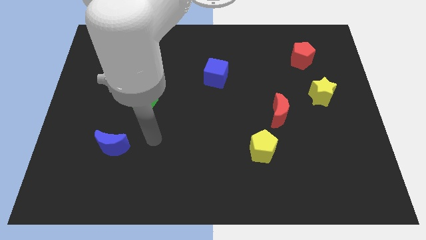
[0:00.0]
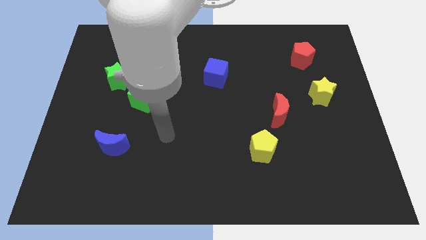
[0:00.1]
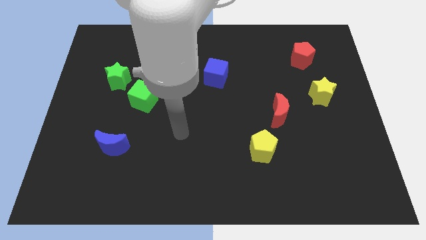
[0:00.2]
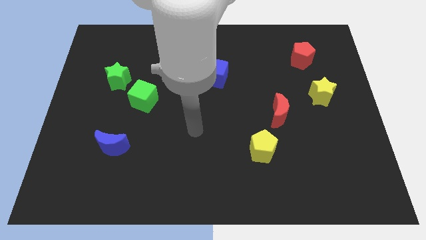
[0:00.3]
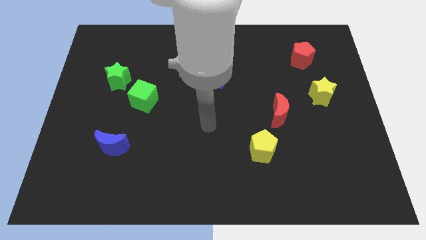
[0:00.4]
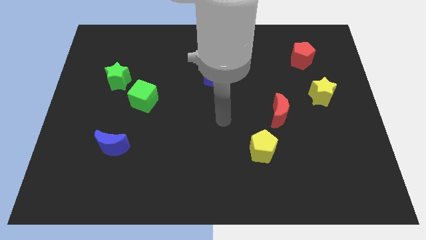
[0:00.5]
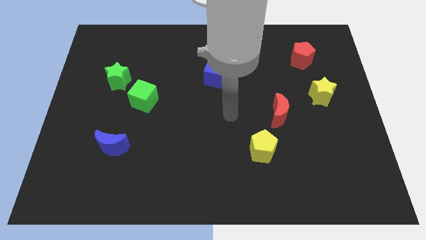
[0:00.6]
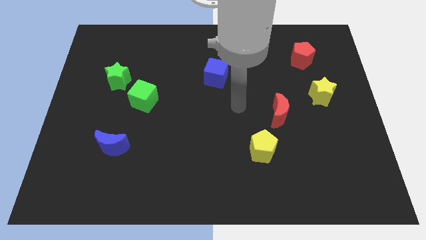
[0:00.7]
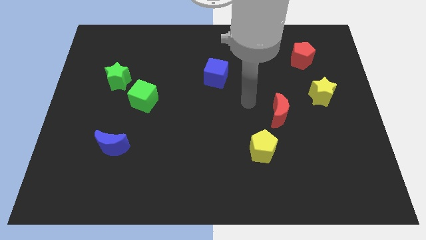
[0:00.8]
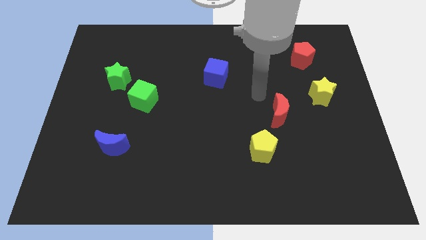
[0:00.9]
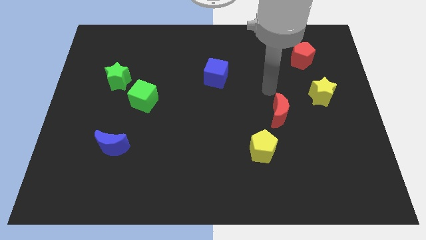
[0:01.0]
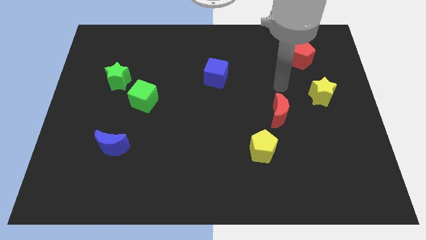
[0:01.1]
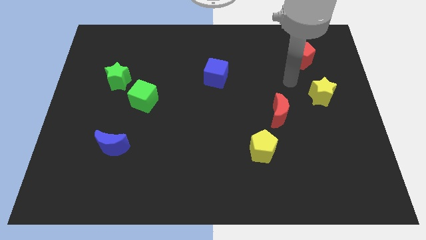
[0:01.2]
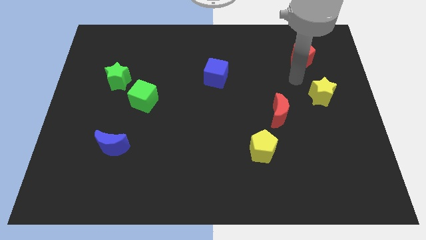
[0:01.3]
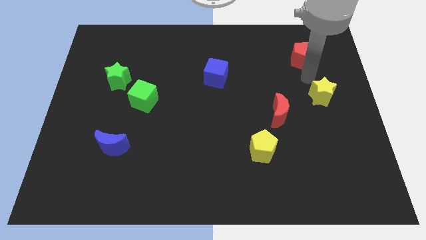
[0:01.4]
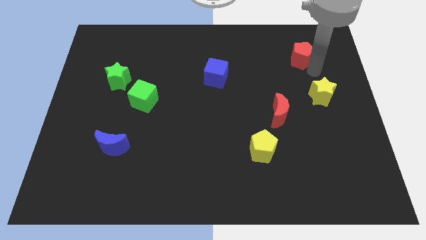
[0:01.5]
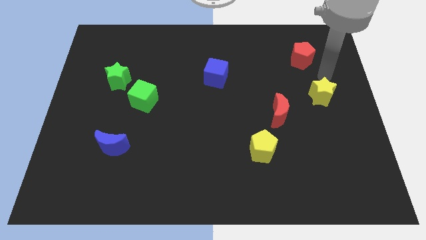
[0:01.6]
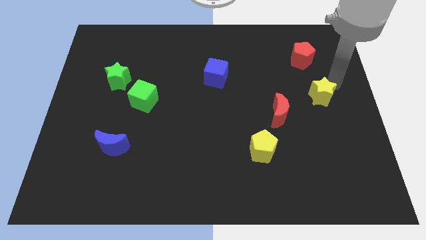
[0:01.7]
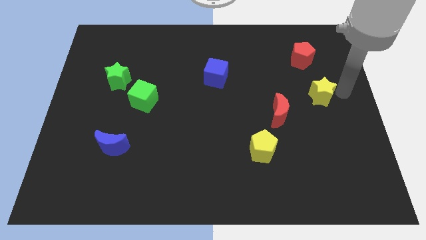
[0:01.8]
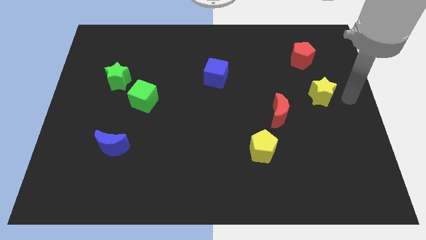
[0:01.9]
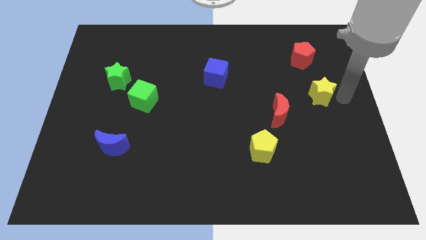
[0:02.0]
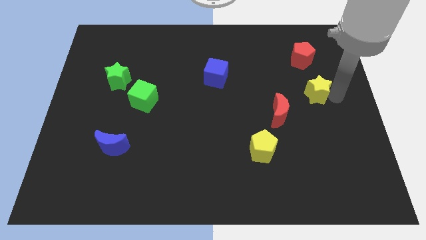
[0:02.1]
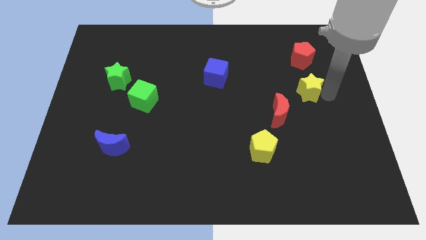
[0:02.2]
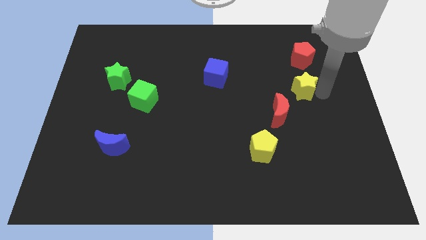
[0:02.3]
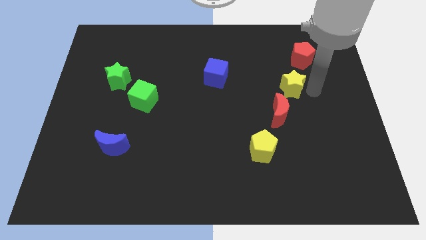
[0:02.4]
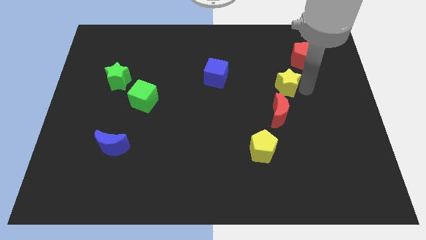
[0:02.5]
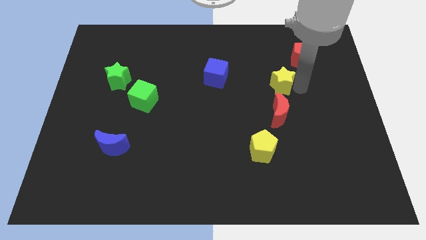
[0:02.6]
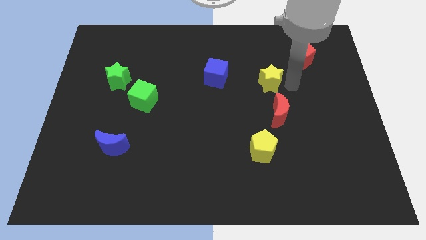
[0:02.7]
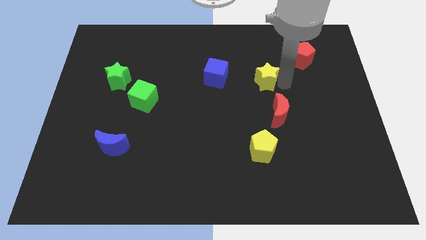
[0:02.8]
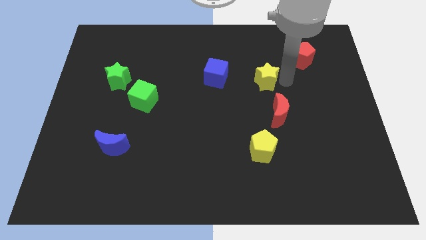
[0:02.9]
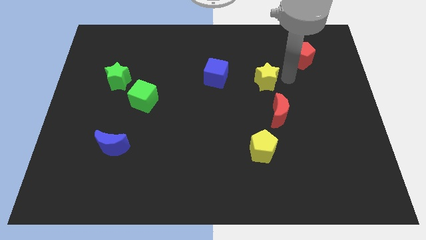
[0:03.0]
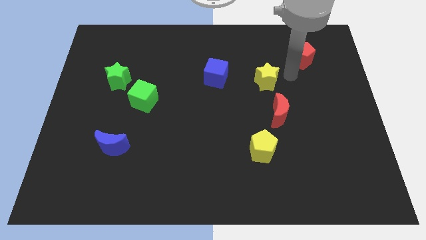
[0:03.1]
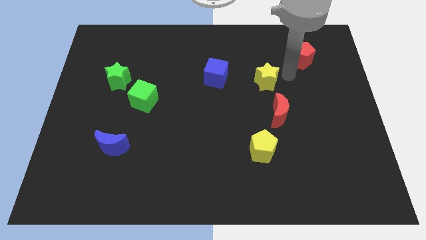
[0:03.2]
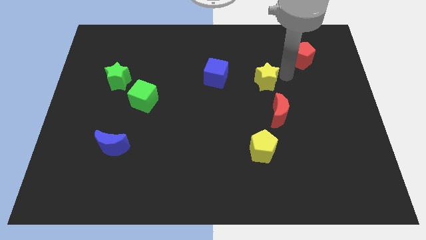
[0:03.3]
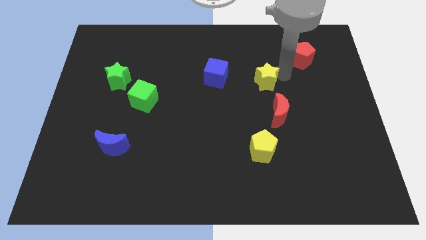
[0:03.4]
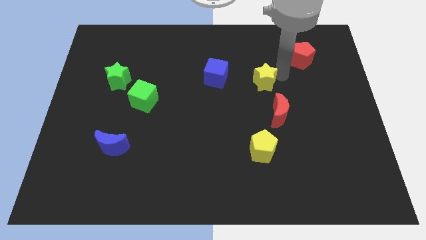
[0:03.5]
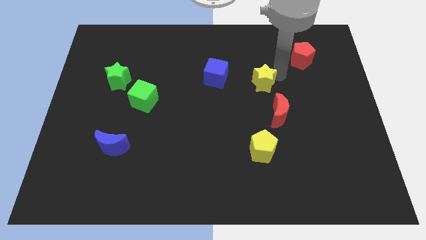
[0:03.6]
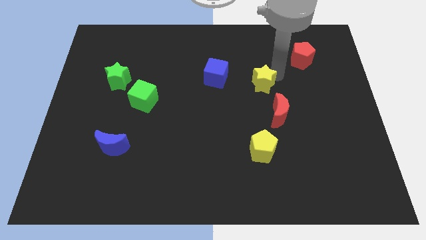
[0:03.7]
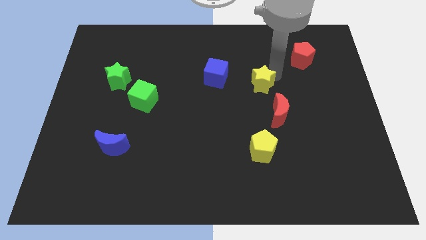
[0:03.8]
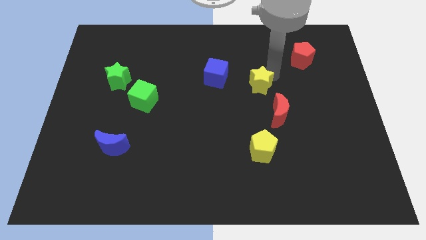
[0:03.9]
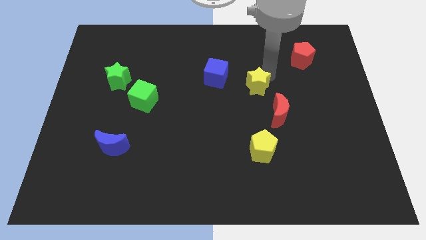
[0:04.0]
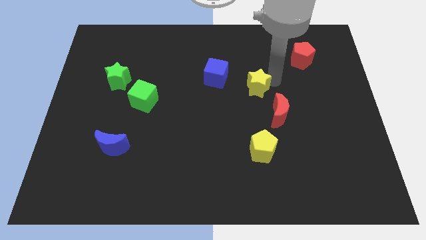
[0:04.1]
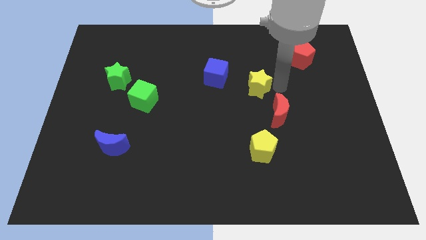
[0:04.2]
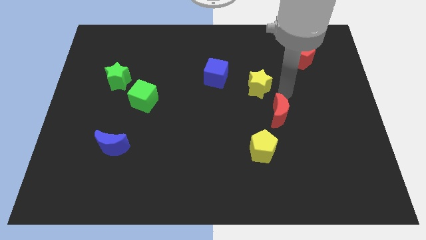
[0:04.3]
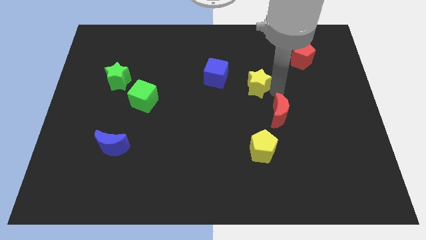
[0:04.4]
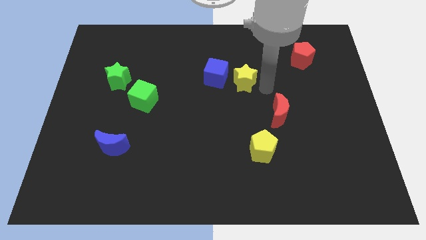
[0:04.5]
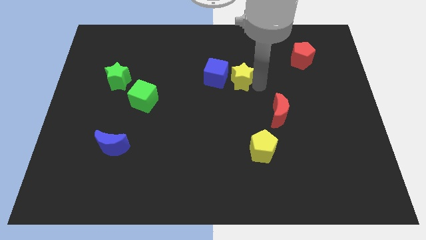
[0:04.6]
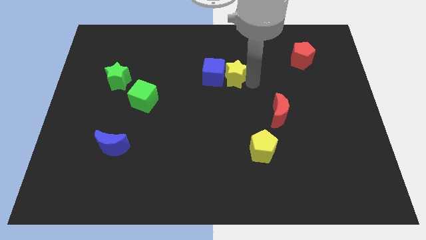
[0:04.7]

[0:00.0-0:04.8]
push the yellow star towards the blue cube

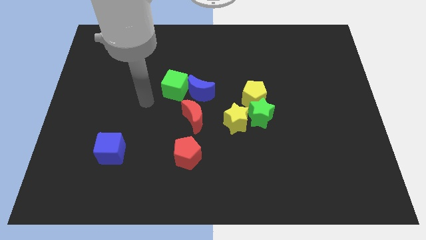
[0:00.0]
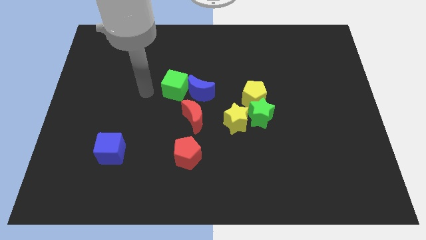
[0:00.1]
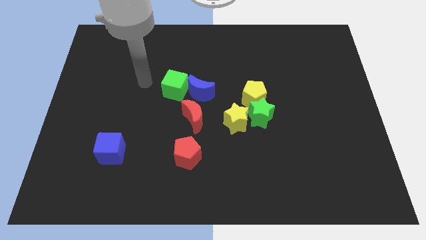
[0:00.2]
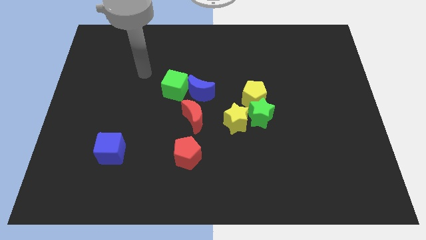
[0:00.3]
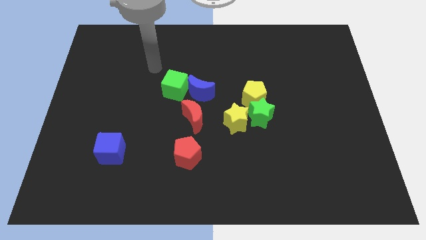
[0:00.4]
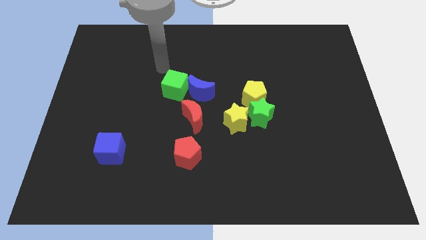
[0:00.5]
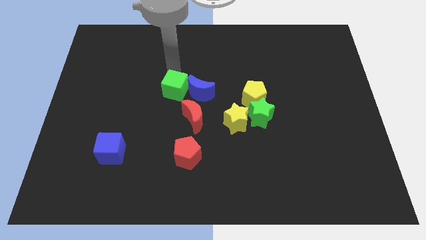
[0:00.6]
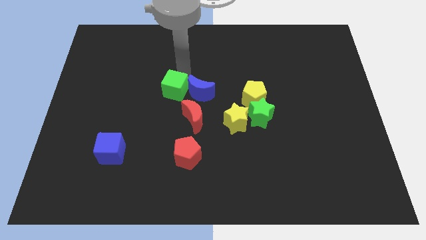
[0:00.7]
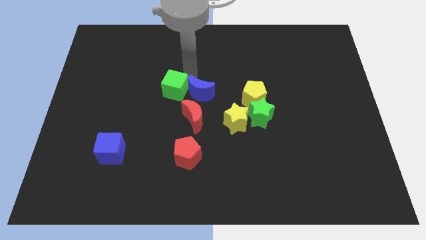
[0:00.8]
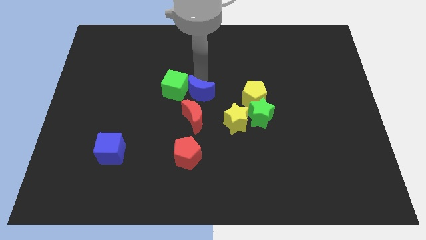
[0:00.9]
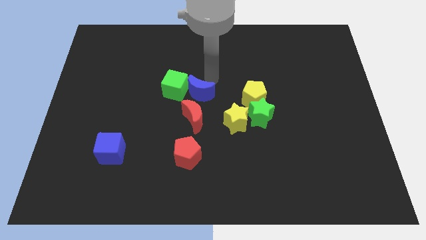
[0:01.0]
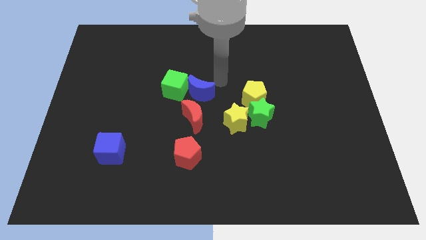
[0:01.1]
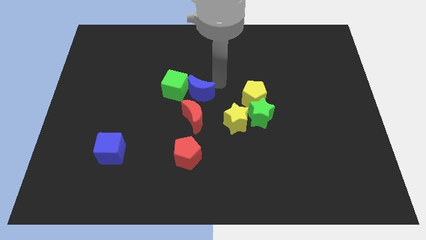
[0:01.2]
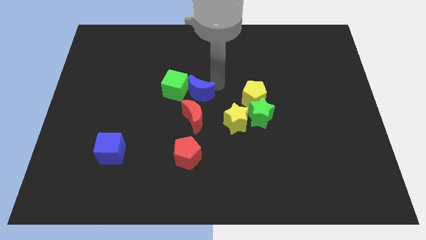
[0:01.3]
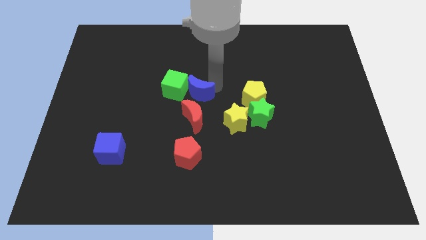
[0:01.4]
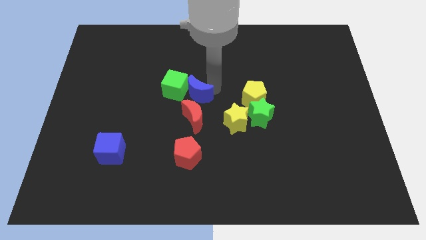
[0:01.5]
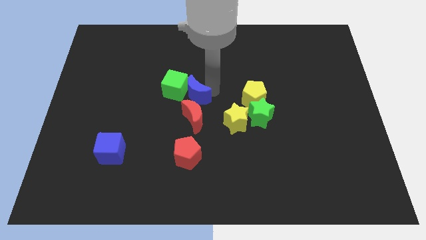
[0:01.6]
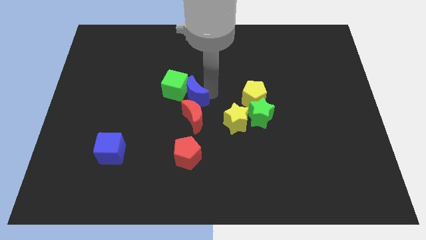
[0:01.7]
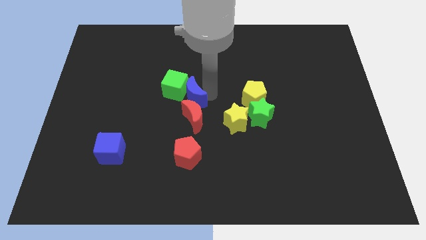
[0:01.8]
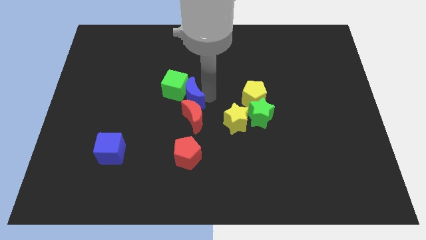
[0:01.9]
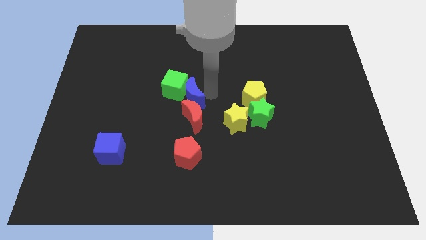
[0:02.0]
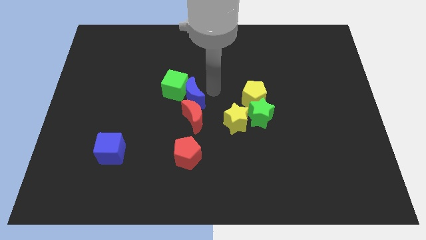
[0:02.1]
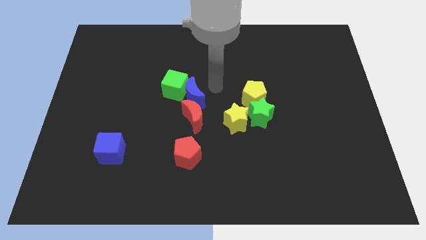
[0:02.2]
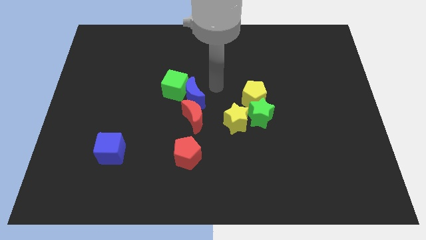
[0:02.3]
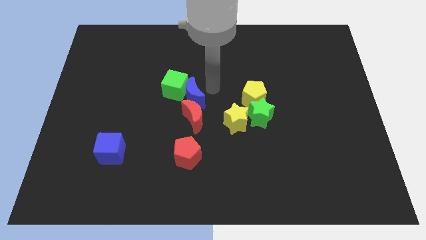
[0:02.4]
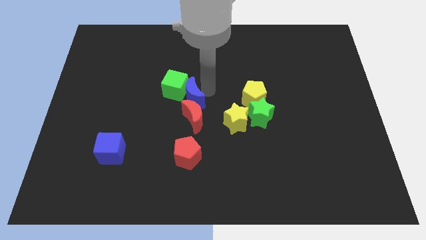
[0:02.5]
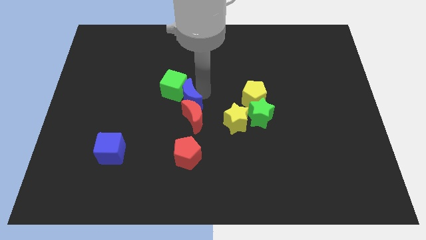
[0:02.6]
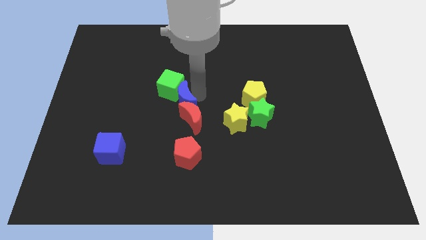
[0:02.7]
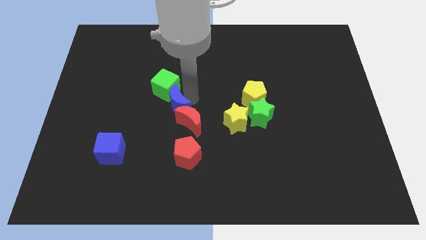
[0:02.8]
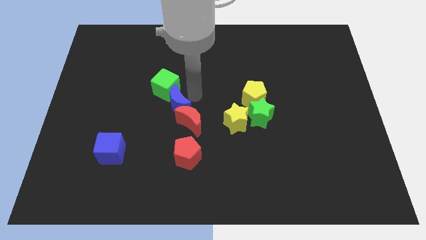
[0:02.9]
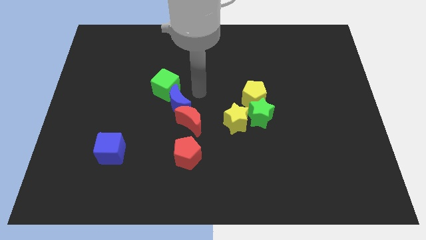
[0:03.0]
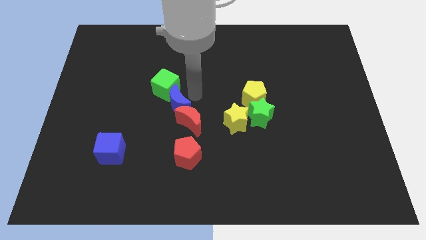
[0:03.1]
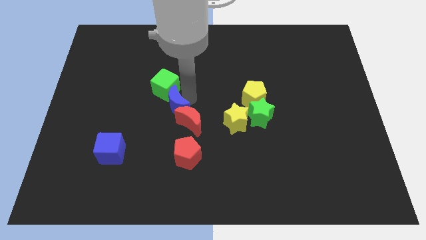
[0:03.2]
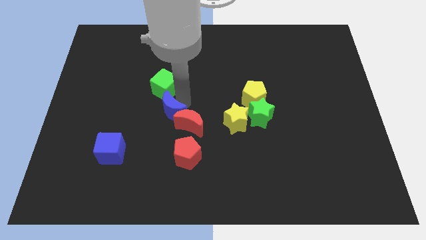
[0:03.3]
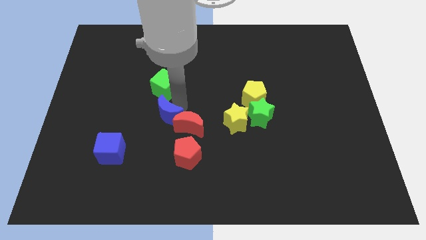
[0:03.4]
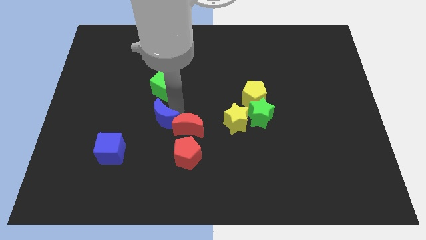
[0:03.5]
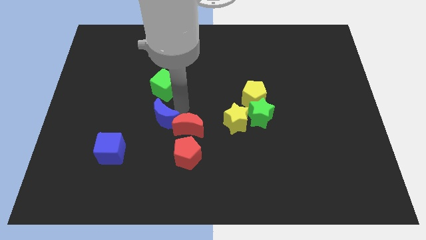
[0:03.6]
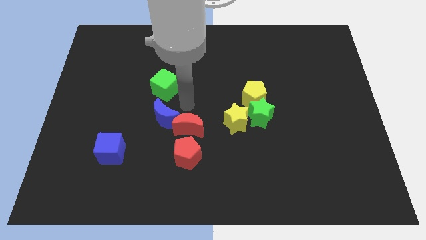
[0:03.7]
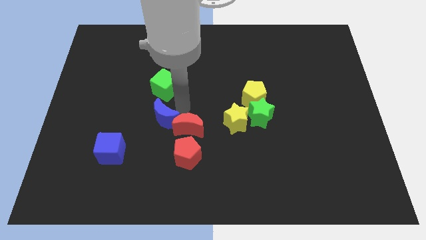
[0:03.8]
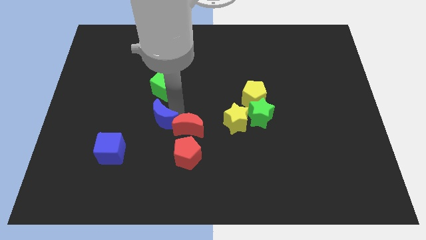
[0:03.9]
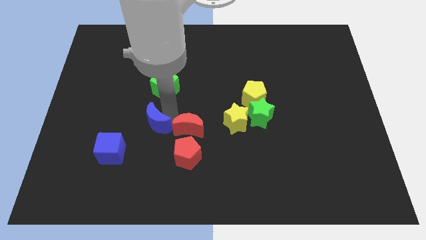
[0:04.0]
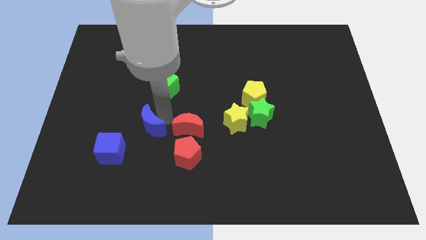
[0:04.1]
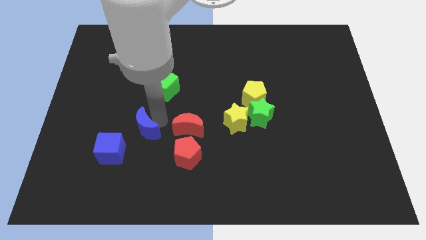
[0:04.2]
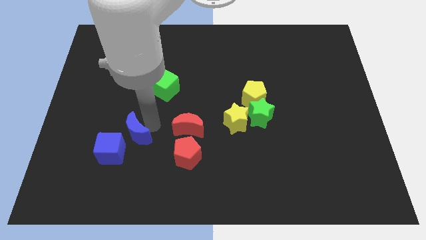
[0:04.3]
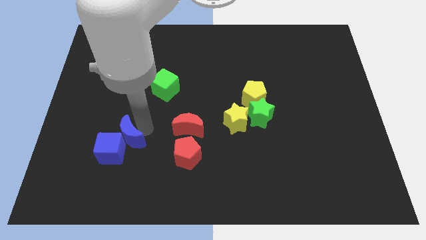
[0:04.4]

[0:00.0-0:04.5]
put the blue moon towards the blue cube
